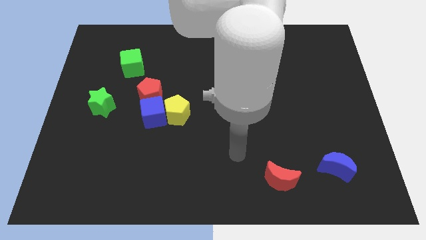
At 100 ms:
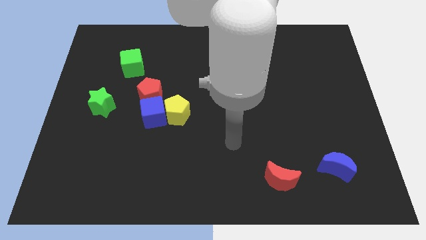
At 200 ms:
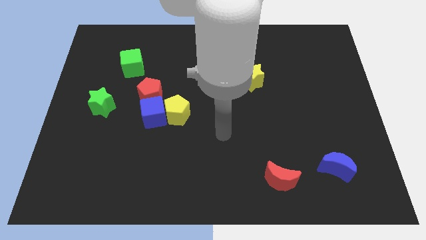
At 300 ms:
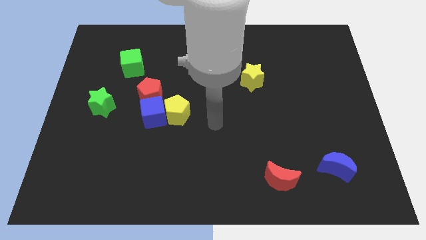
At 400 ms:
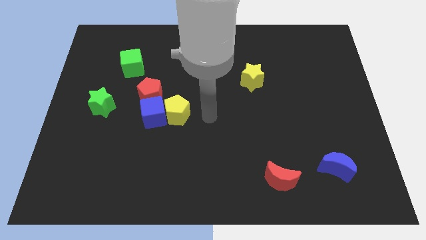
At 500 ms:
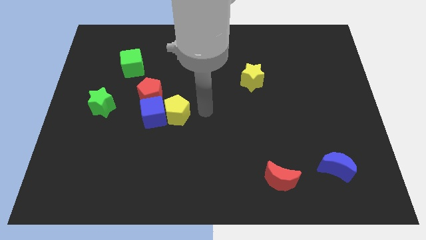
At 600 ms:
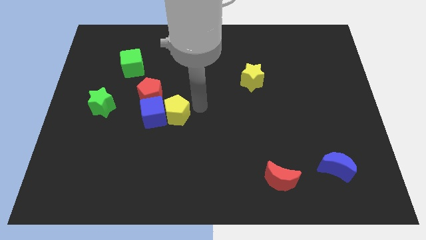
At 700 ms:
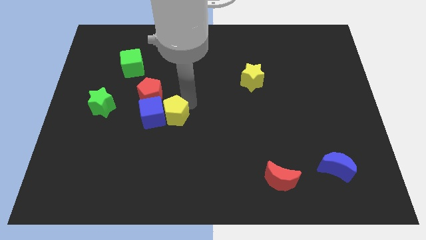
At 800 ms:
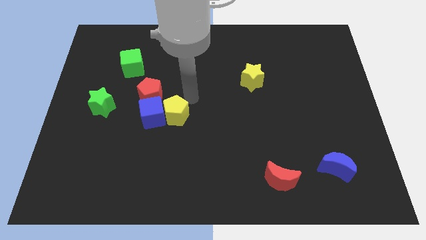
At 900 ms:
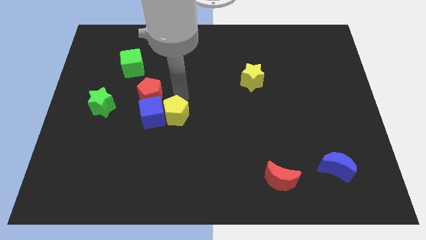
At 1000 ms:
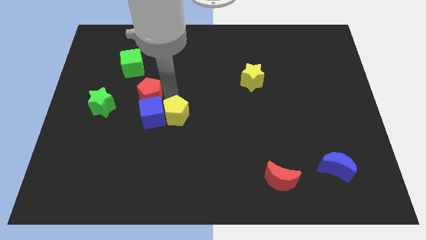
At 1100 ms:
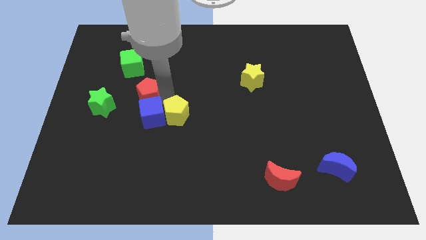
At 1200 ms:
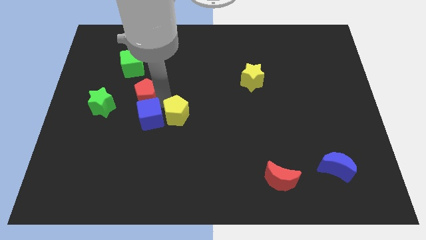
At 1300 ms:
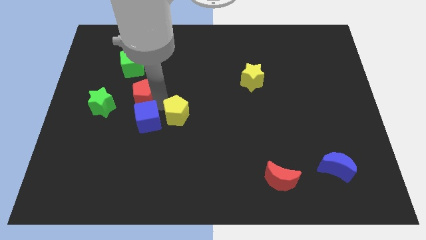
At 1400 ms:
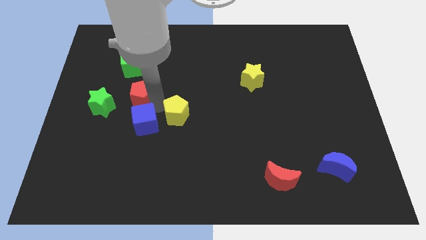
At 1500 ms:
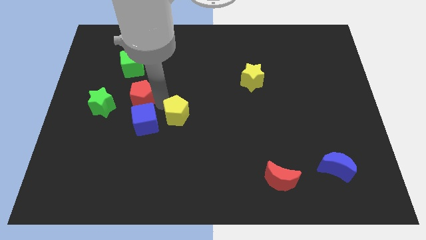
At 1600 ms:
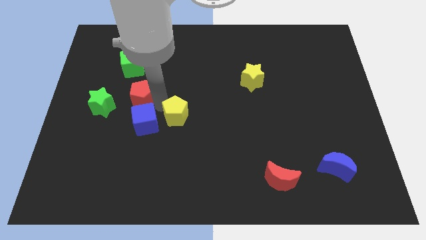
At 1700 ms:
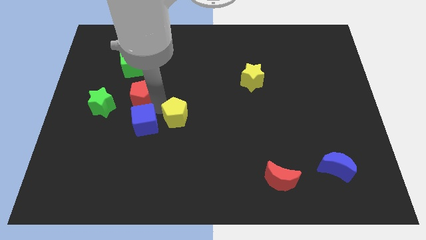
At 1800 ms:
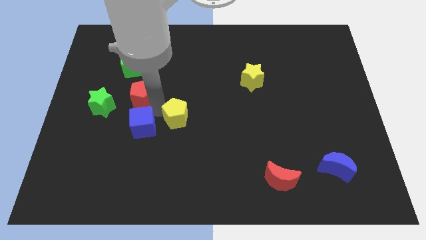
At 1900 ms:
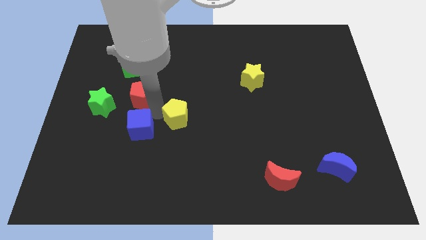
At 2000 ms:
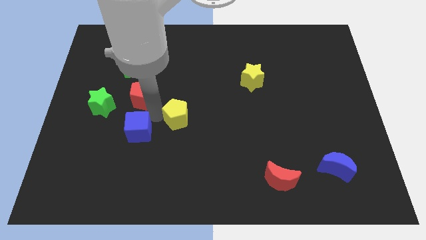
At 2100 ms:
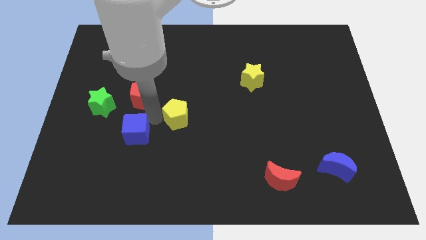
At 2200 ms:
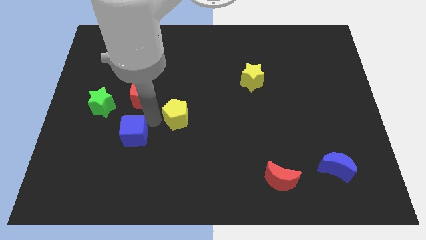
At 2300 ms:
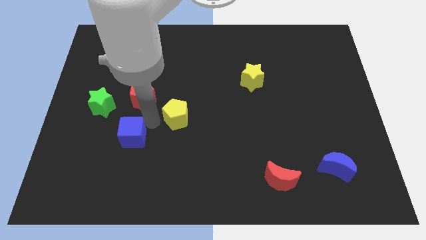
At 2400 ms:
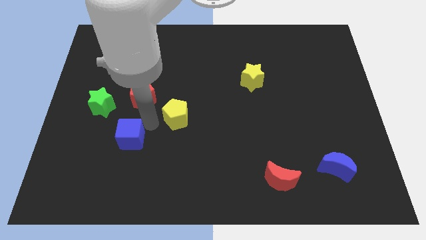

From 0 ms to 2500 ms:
move the blue cube away from the yellow pentagon and red pentagon

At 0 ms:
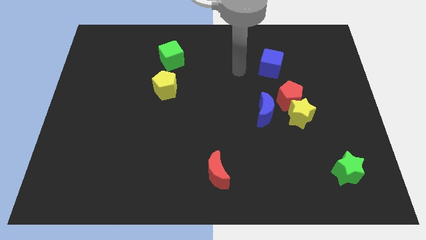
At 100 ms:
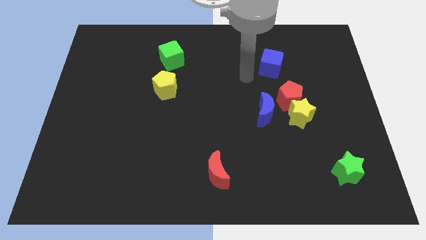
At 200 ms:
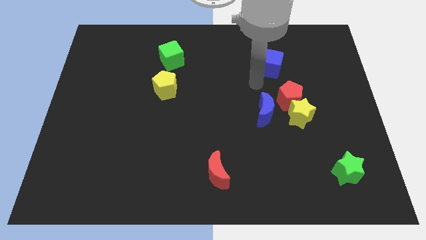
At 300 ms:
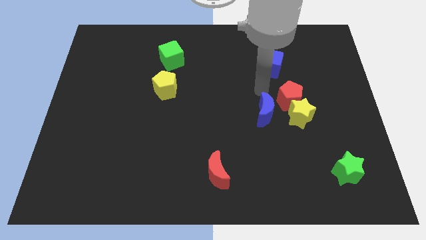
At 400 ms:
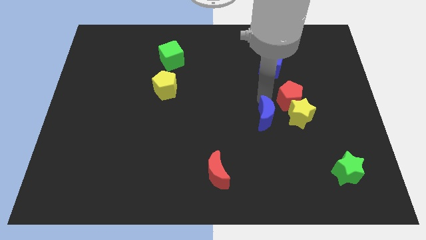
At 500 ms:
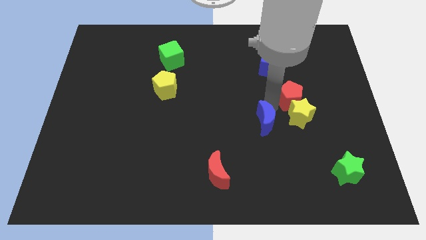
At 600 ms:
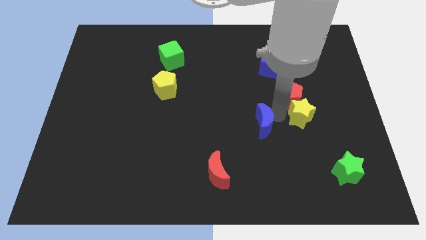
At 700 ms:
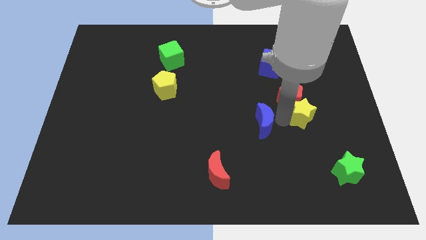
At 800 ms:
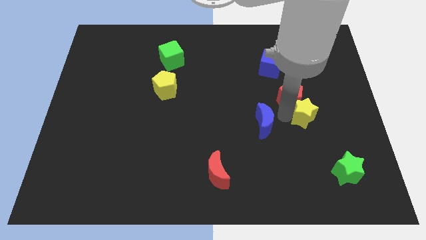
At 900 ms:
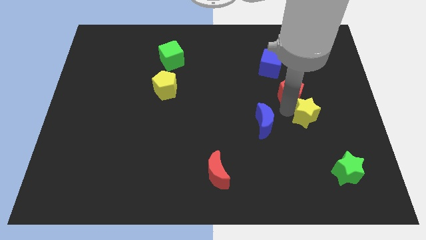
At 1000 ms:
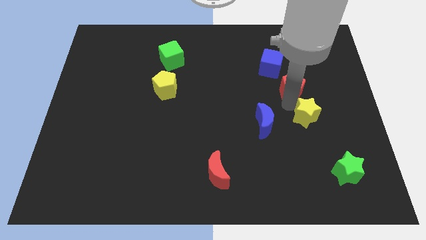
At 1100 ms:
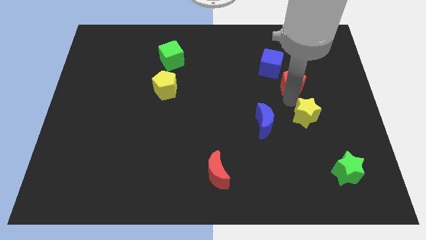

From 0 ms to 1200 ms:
pull the red pentagon apart from the yellow star and blue moon

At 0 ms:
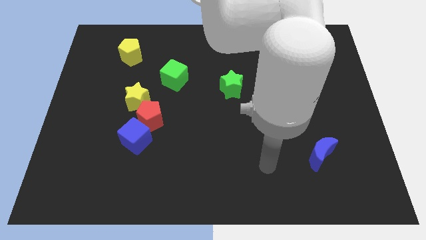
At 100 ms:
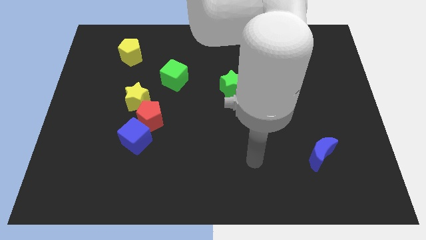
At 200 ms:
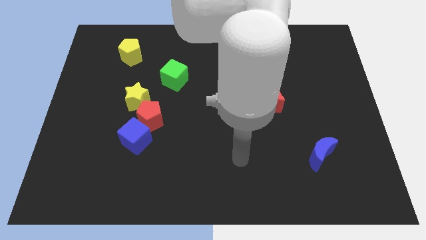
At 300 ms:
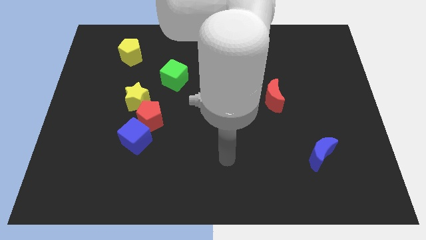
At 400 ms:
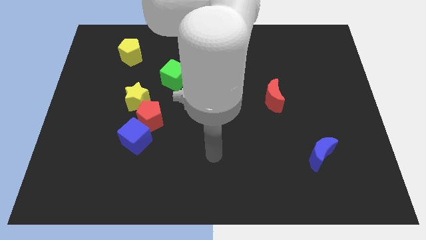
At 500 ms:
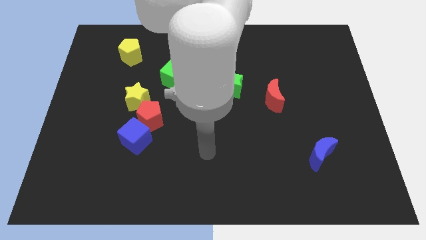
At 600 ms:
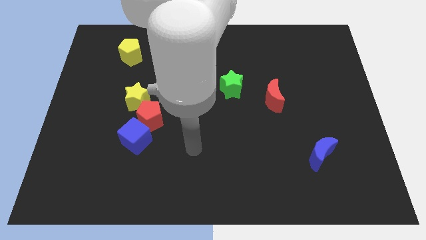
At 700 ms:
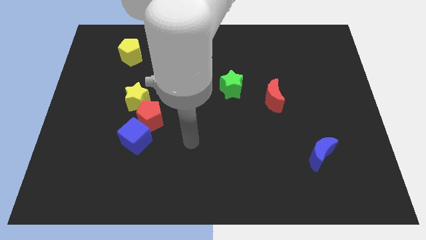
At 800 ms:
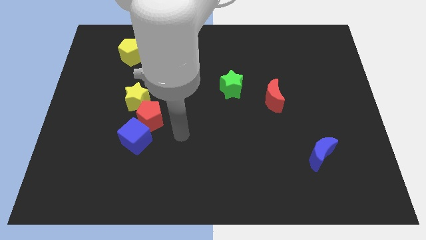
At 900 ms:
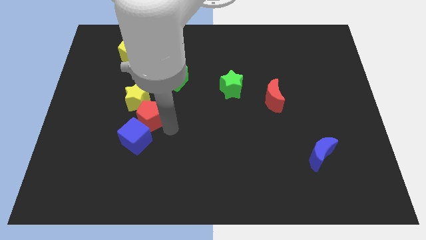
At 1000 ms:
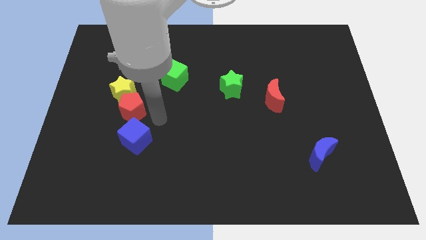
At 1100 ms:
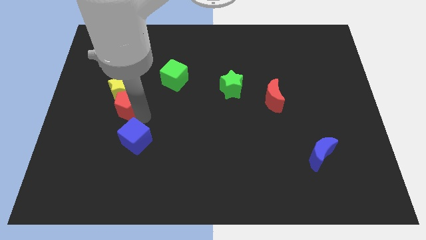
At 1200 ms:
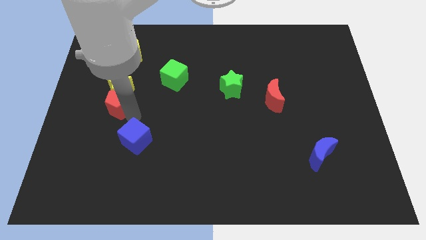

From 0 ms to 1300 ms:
separate the blue cube from the red pentagon

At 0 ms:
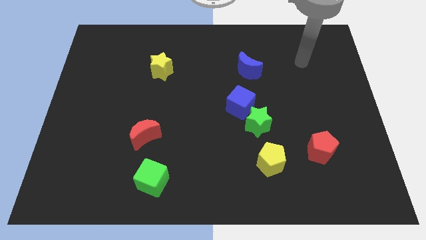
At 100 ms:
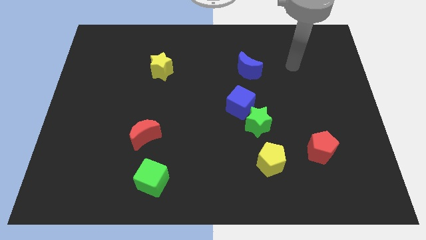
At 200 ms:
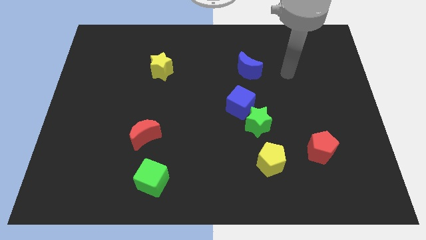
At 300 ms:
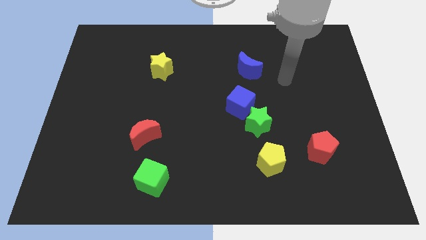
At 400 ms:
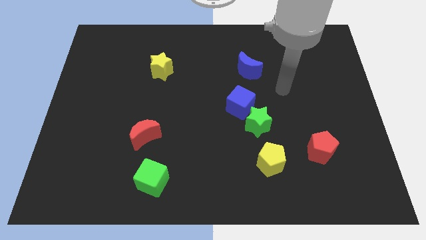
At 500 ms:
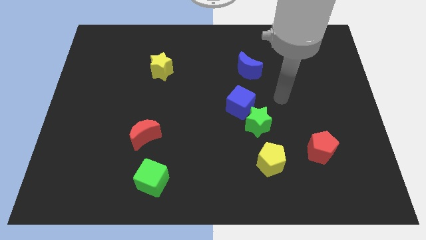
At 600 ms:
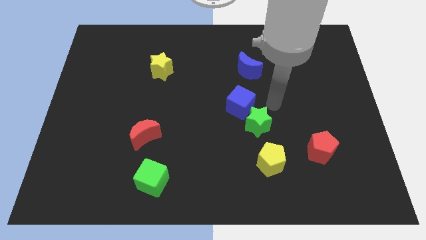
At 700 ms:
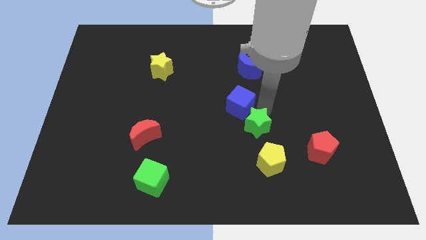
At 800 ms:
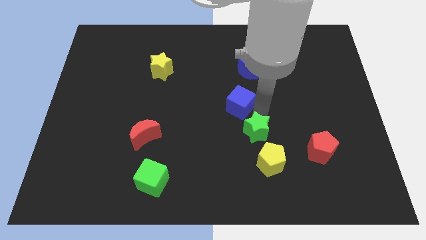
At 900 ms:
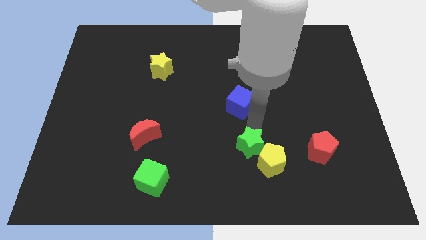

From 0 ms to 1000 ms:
separate the blue cube from the green star

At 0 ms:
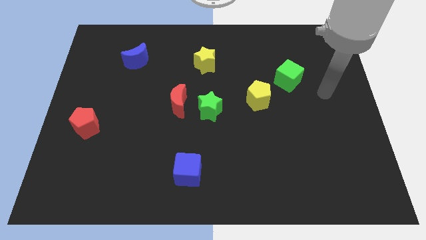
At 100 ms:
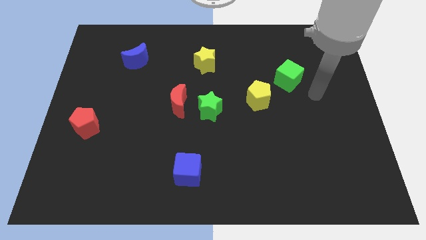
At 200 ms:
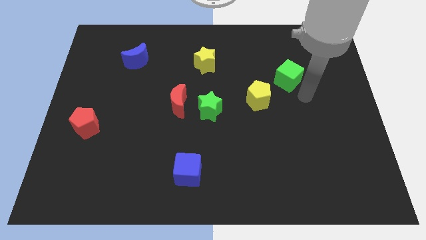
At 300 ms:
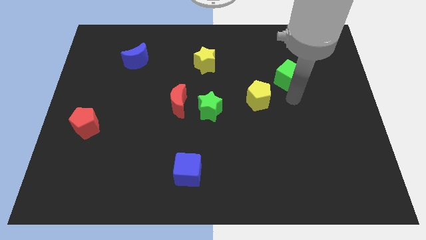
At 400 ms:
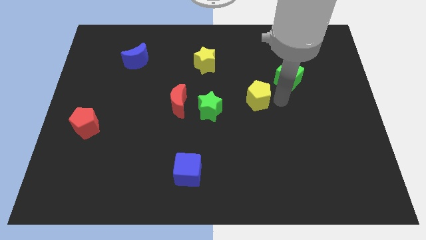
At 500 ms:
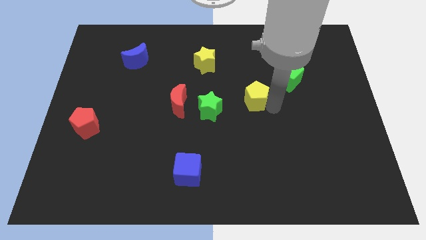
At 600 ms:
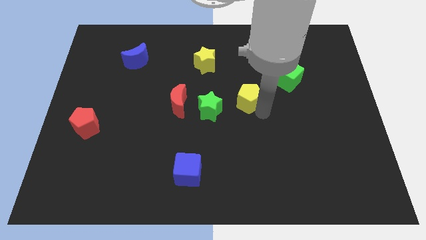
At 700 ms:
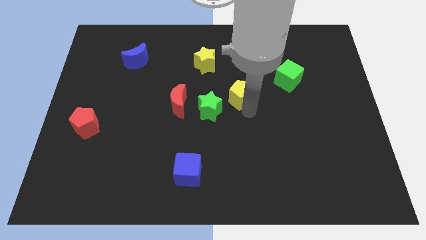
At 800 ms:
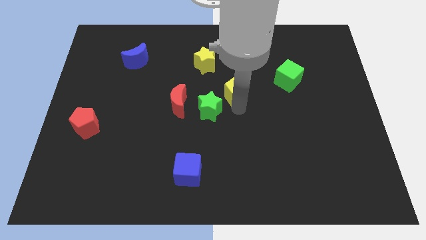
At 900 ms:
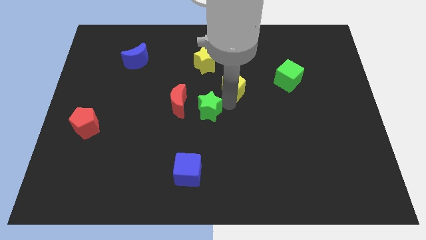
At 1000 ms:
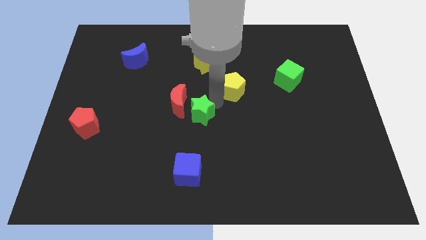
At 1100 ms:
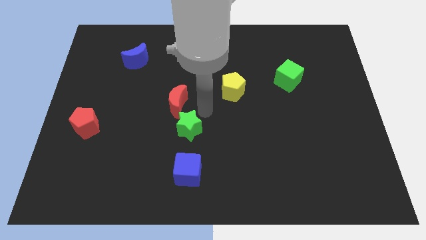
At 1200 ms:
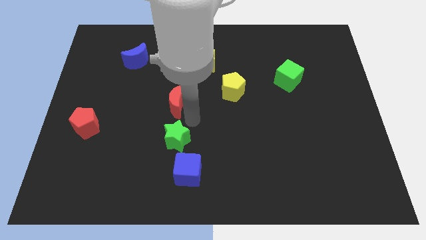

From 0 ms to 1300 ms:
pull the red moon apart from the green star

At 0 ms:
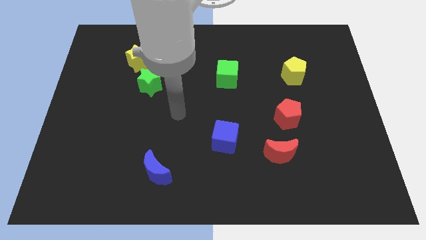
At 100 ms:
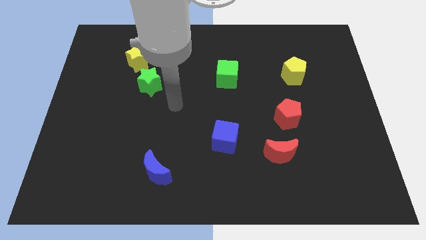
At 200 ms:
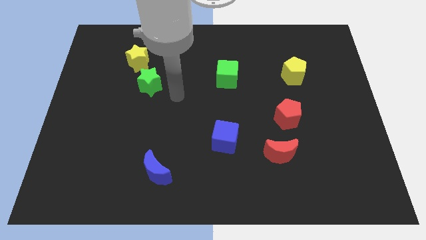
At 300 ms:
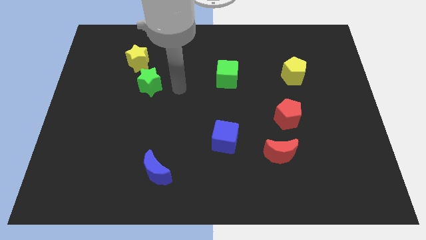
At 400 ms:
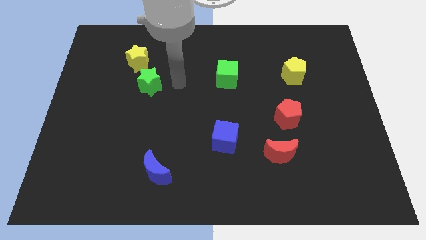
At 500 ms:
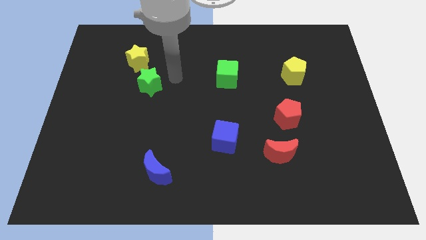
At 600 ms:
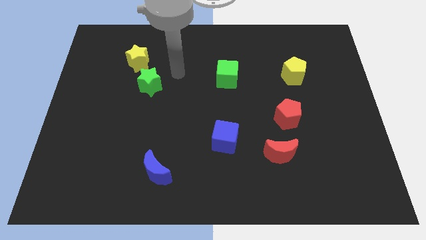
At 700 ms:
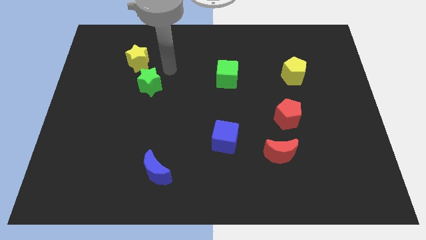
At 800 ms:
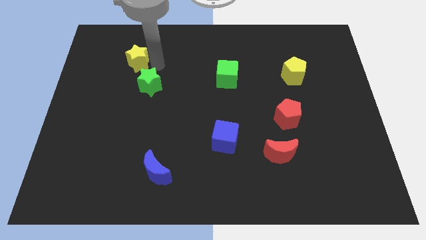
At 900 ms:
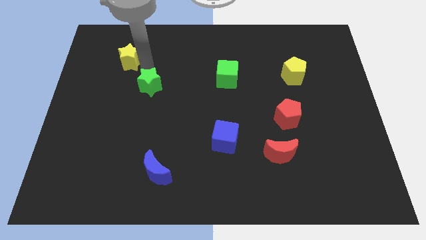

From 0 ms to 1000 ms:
separate the green star from the yellow star

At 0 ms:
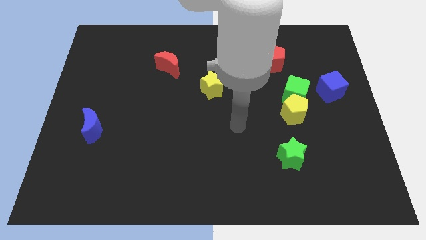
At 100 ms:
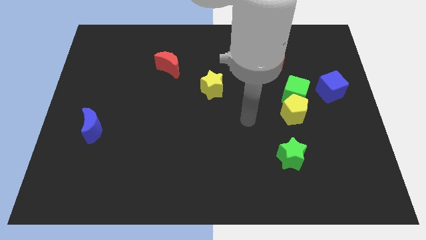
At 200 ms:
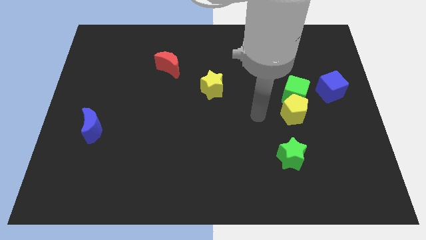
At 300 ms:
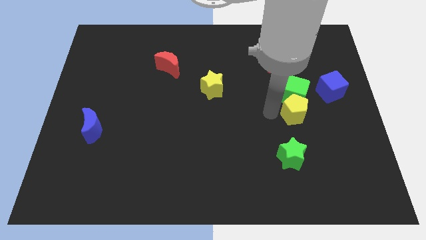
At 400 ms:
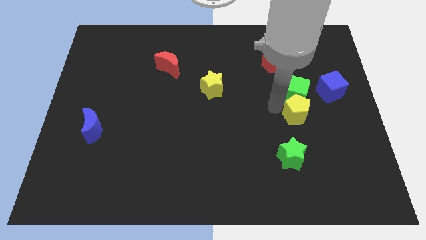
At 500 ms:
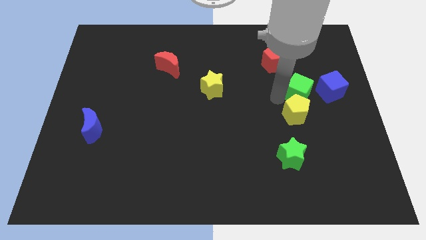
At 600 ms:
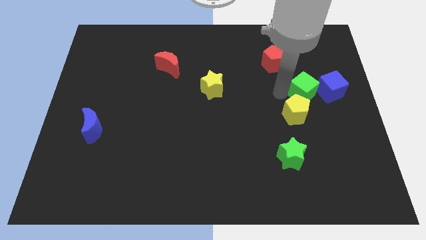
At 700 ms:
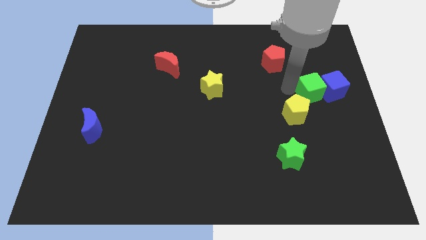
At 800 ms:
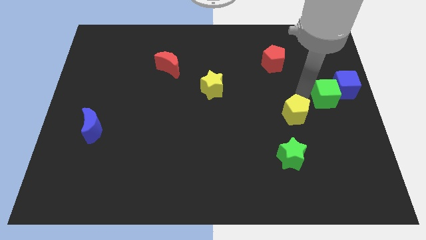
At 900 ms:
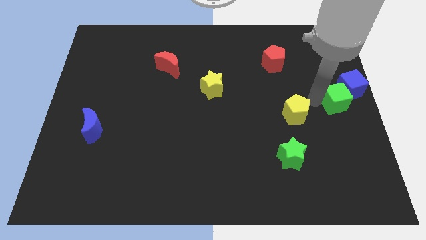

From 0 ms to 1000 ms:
pull the yellow pentagon apart from the green cube
